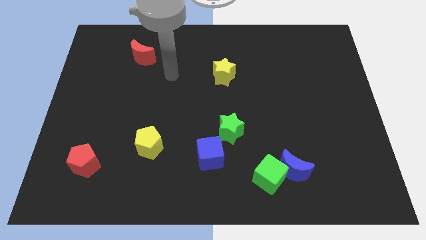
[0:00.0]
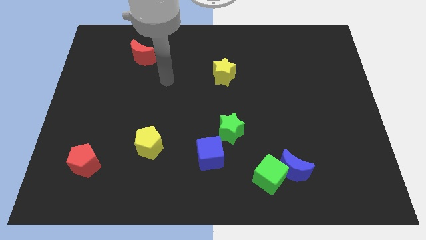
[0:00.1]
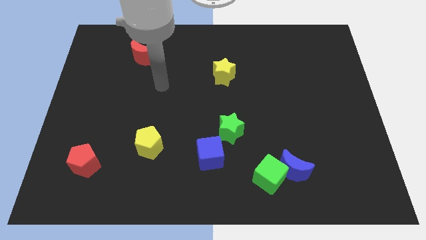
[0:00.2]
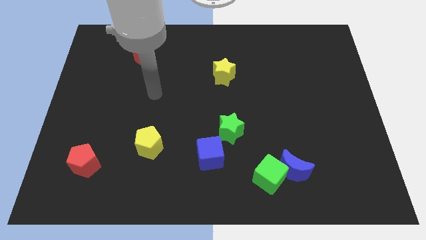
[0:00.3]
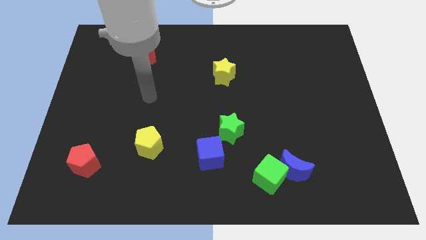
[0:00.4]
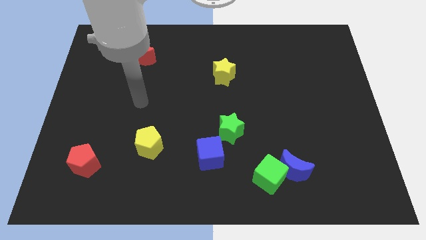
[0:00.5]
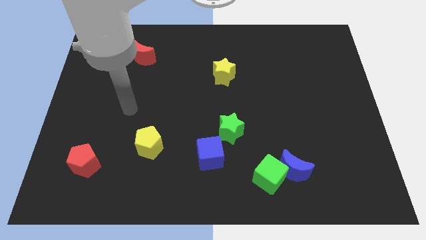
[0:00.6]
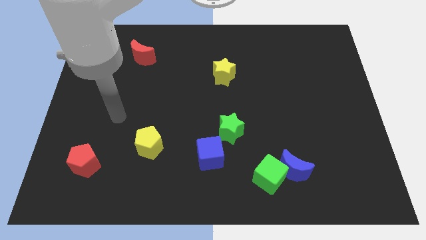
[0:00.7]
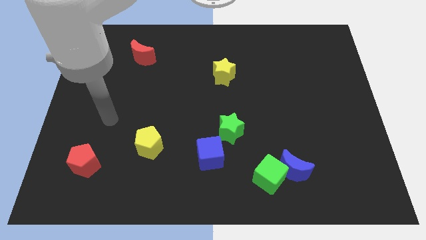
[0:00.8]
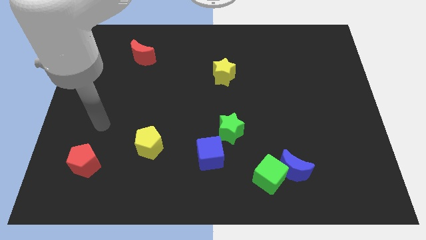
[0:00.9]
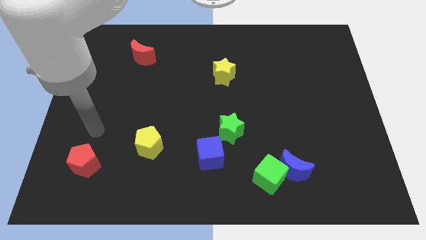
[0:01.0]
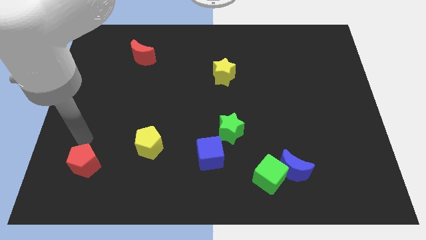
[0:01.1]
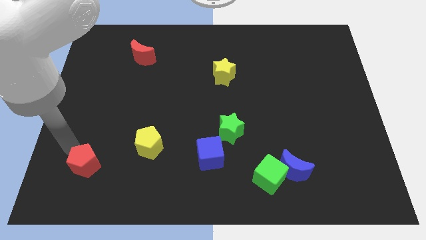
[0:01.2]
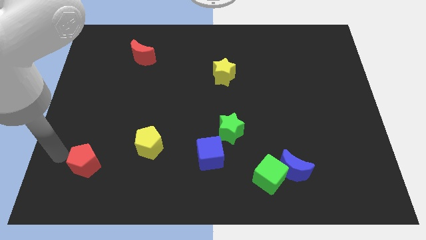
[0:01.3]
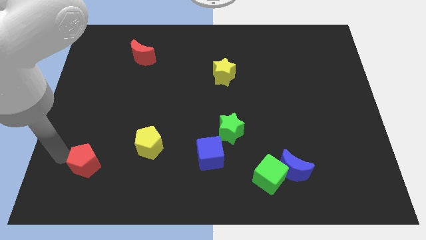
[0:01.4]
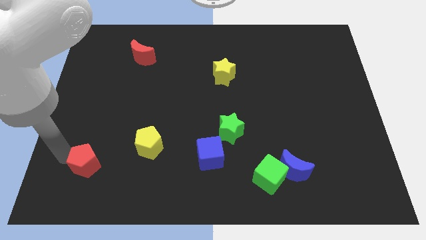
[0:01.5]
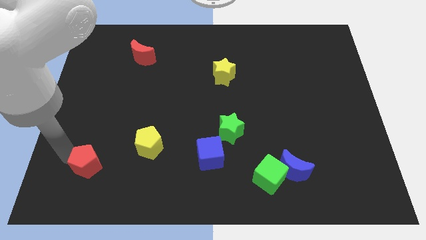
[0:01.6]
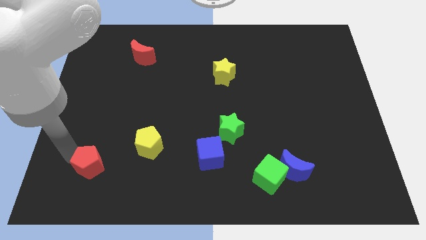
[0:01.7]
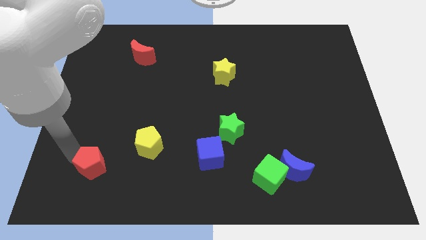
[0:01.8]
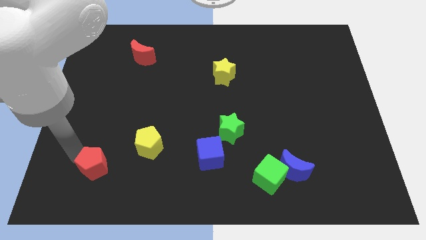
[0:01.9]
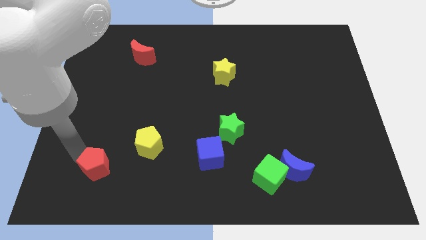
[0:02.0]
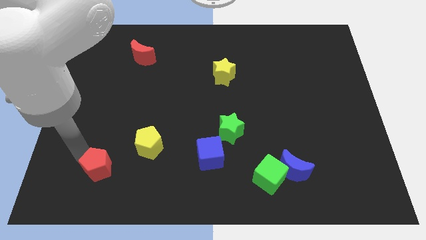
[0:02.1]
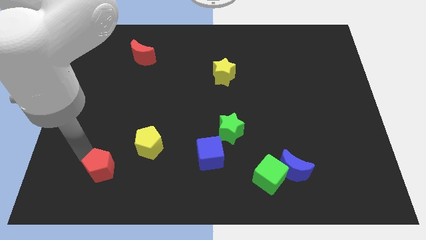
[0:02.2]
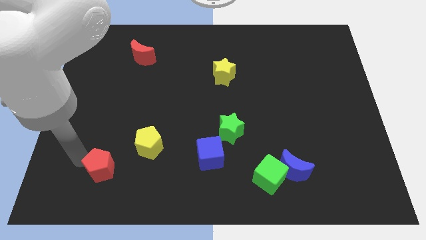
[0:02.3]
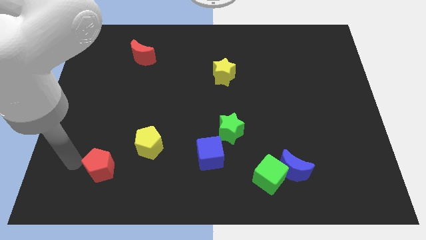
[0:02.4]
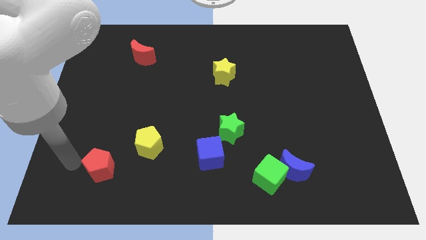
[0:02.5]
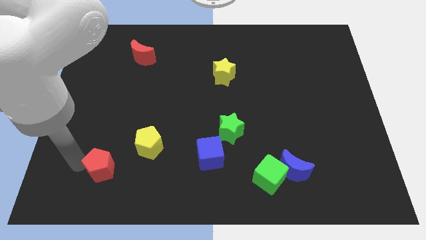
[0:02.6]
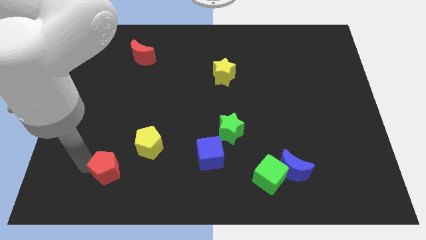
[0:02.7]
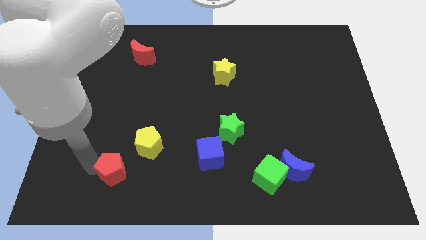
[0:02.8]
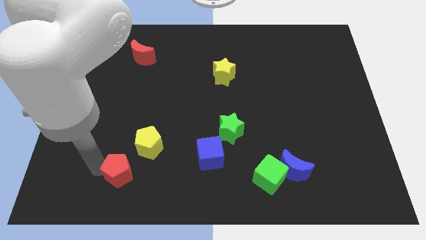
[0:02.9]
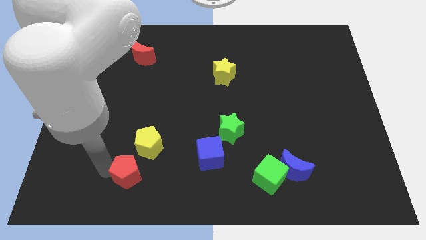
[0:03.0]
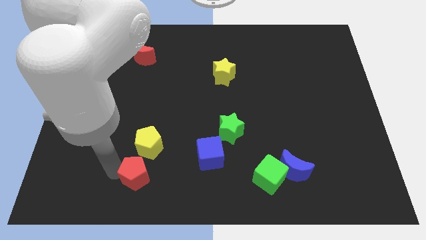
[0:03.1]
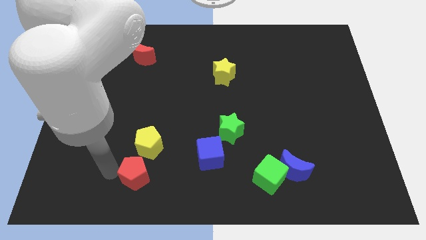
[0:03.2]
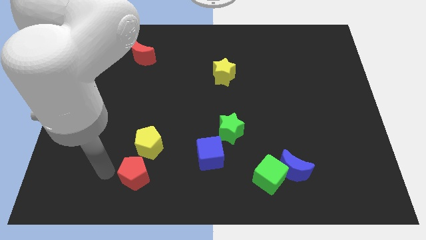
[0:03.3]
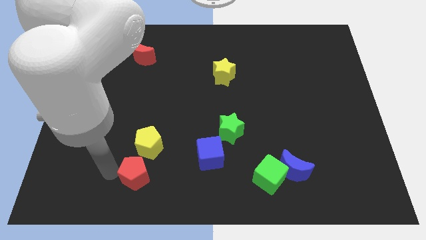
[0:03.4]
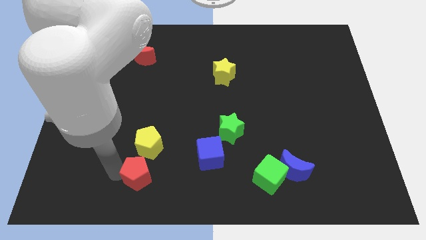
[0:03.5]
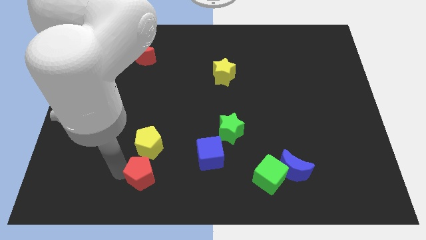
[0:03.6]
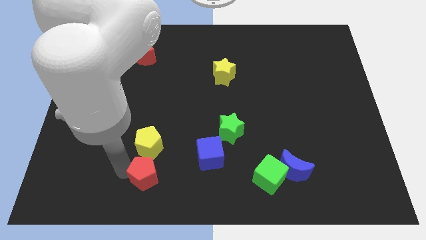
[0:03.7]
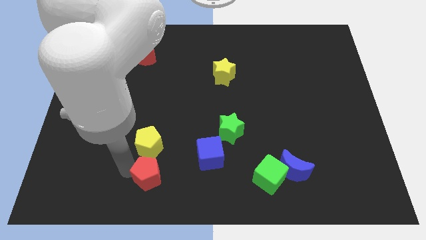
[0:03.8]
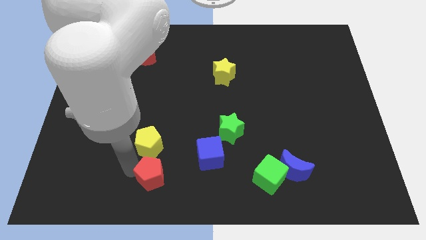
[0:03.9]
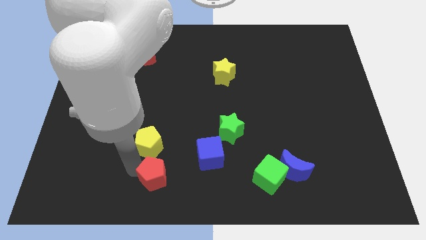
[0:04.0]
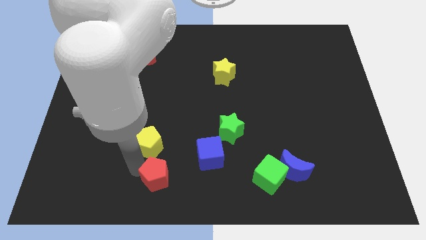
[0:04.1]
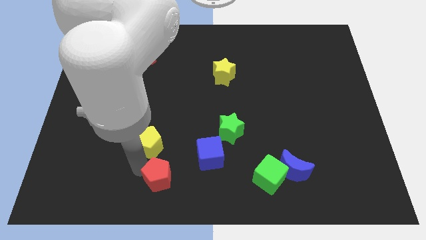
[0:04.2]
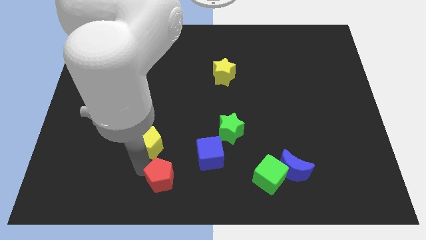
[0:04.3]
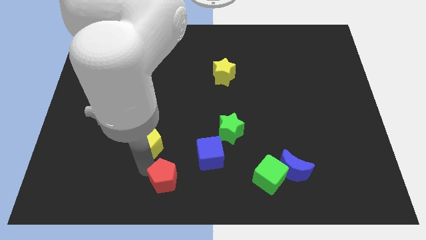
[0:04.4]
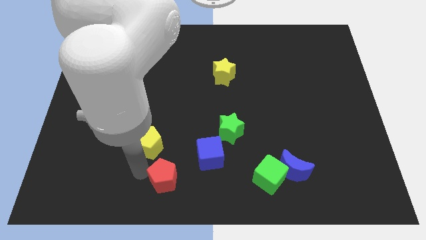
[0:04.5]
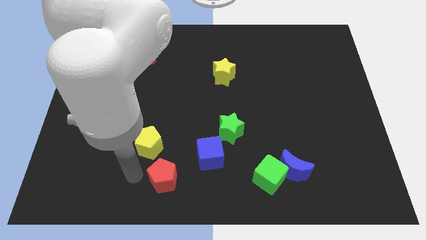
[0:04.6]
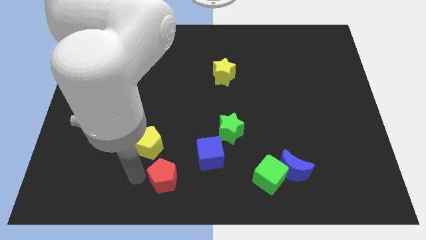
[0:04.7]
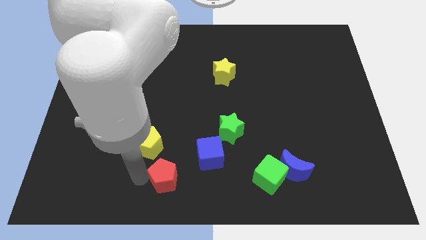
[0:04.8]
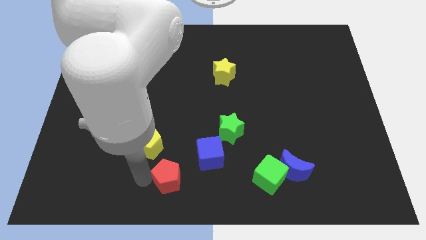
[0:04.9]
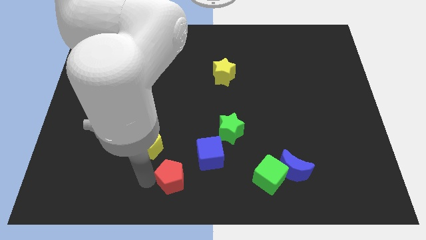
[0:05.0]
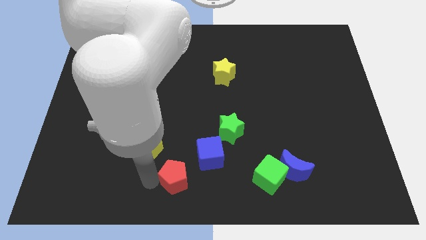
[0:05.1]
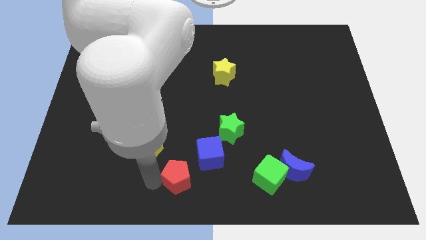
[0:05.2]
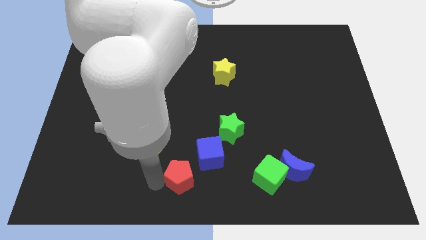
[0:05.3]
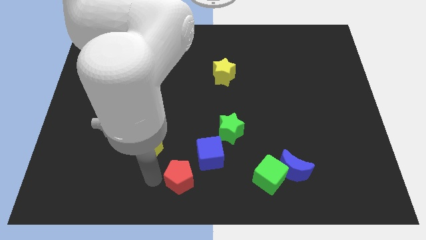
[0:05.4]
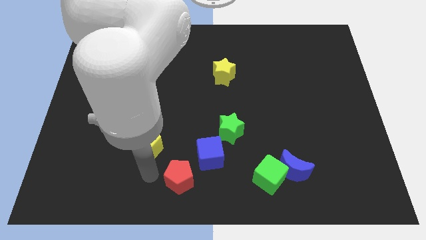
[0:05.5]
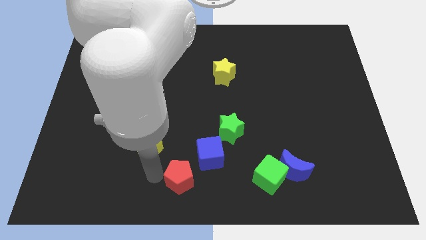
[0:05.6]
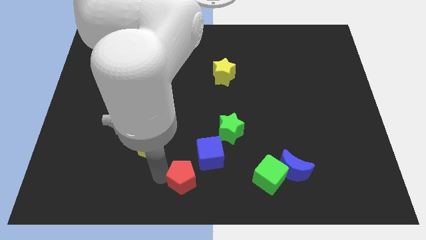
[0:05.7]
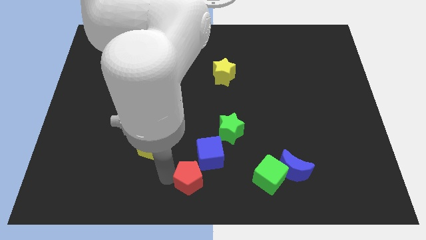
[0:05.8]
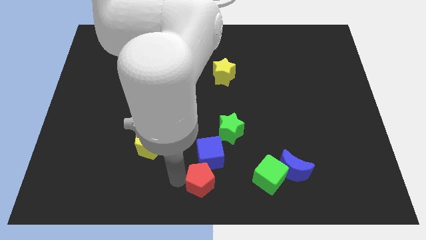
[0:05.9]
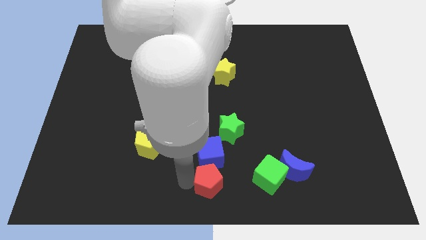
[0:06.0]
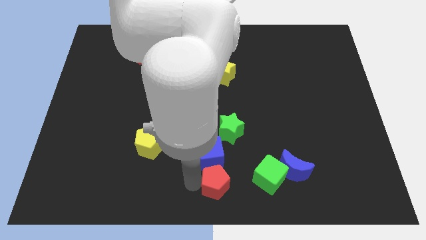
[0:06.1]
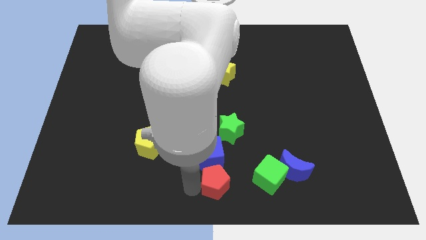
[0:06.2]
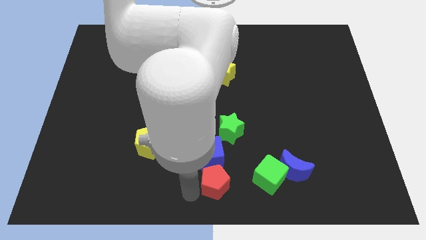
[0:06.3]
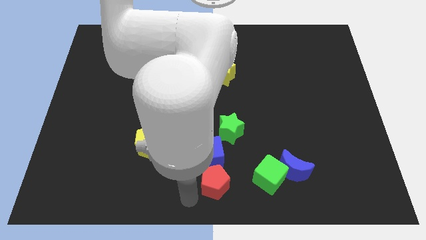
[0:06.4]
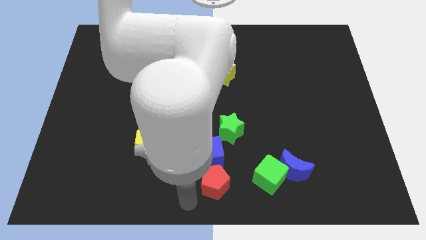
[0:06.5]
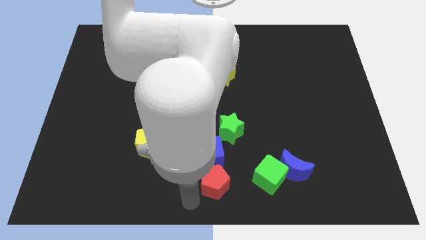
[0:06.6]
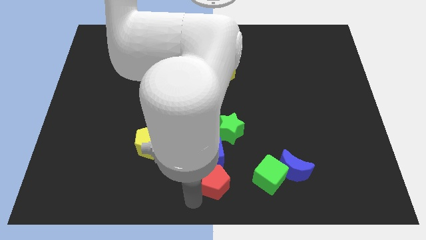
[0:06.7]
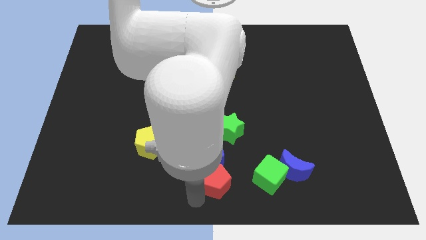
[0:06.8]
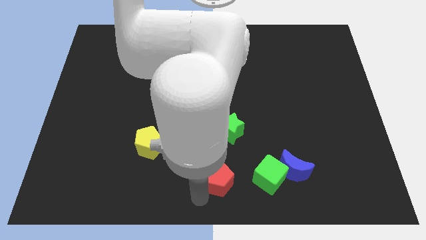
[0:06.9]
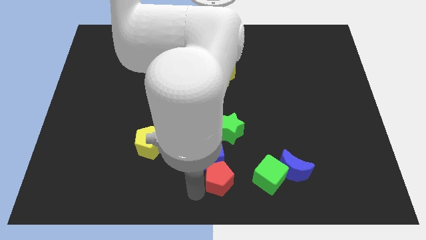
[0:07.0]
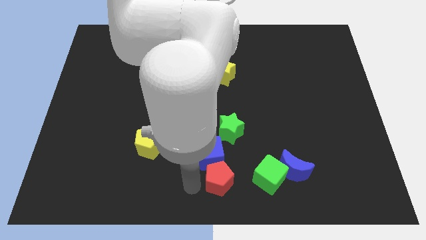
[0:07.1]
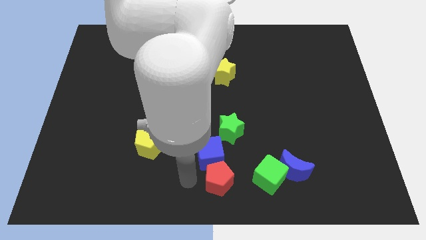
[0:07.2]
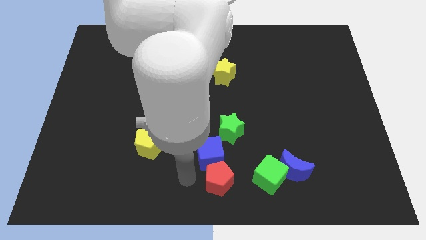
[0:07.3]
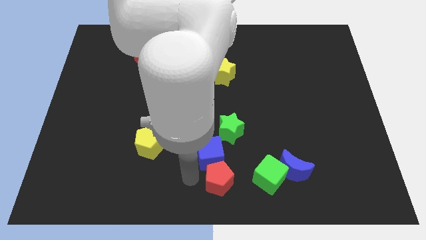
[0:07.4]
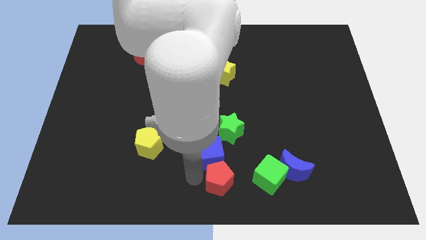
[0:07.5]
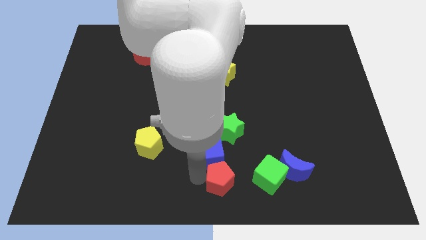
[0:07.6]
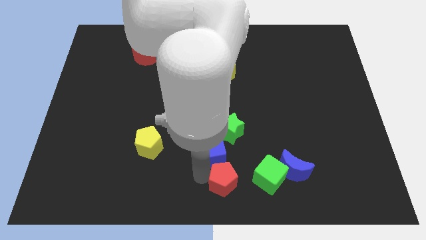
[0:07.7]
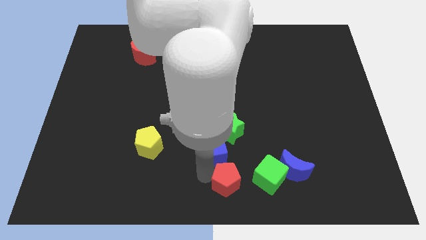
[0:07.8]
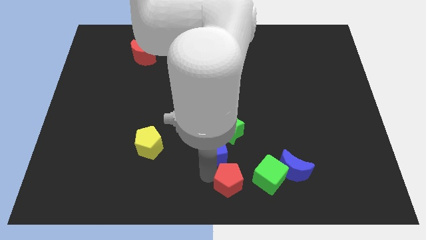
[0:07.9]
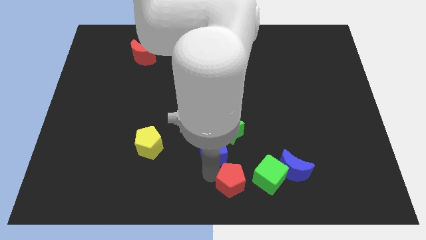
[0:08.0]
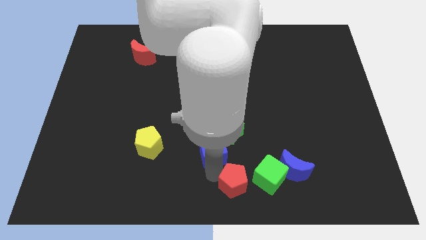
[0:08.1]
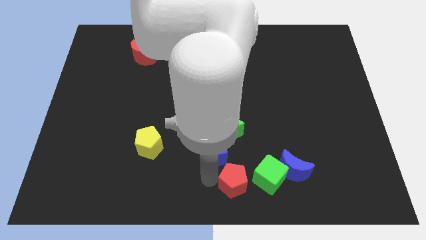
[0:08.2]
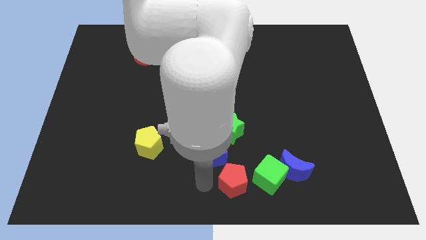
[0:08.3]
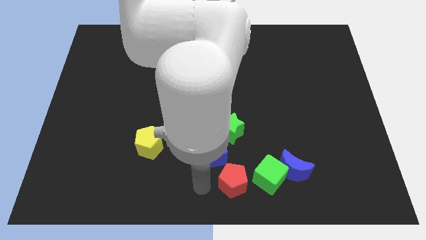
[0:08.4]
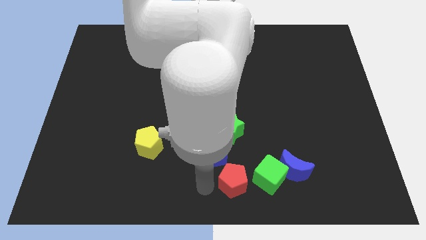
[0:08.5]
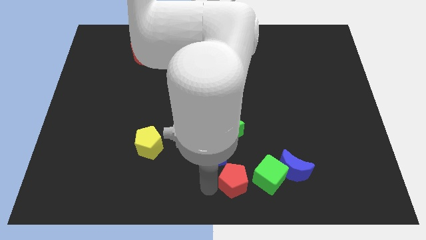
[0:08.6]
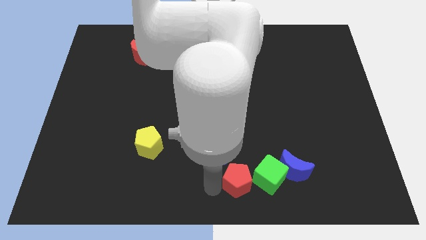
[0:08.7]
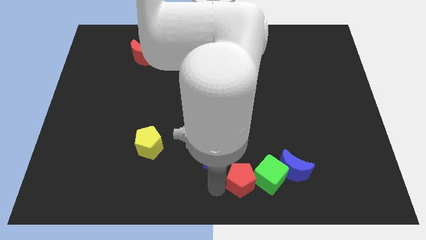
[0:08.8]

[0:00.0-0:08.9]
slide the red pentagon close to the green cube
